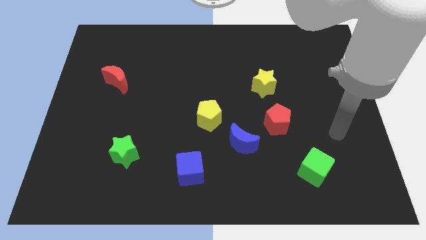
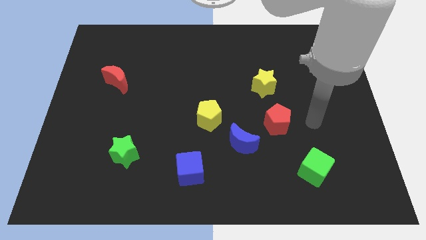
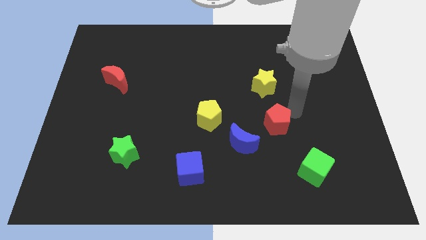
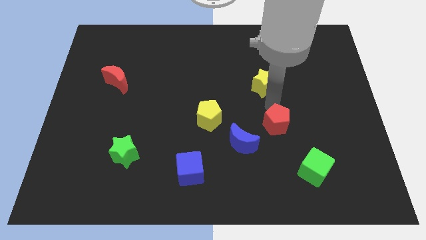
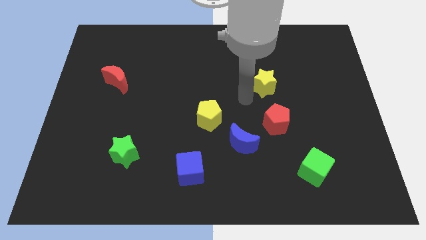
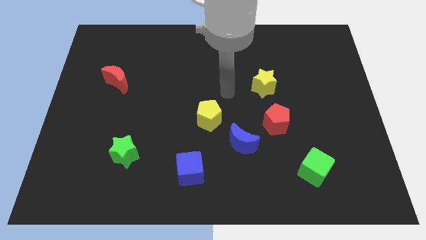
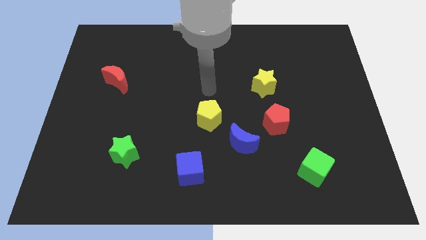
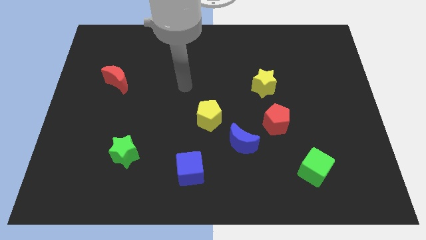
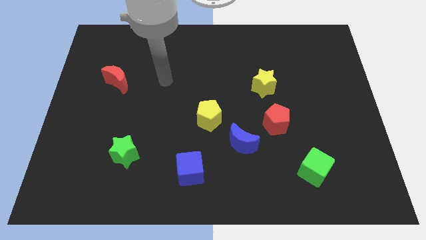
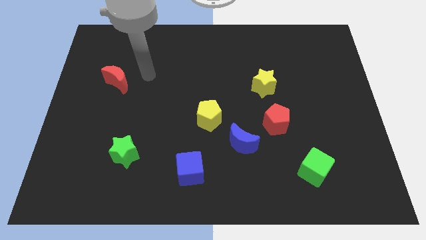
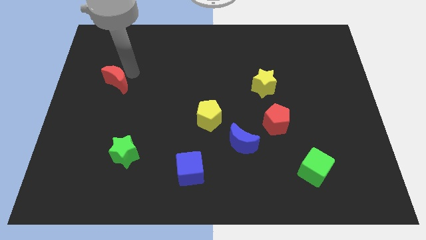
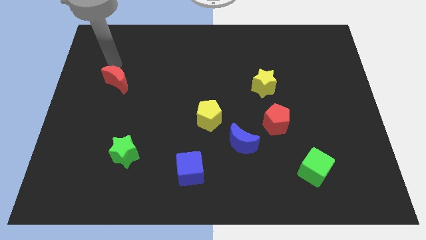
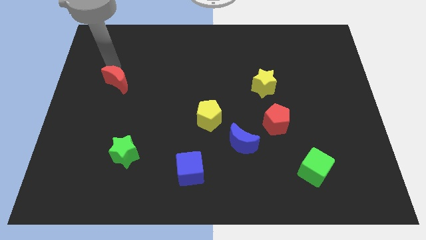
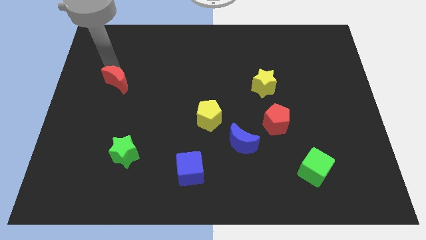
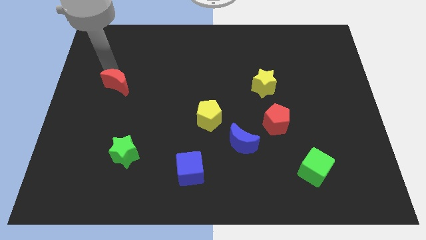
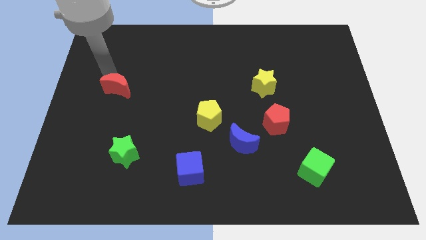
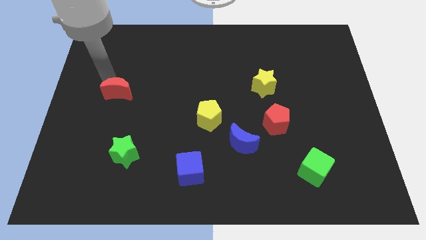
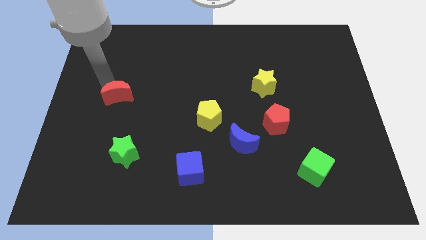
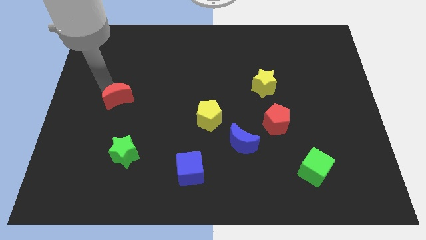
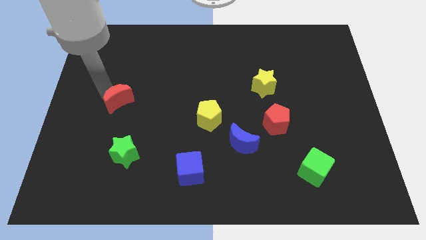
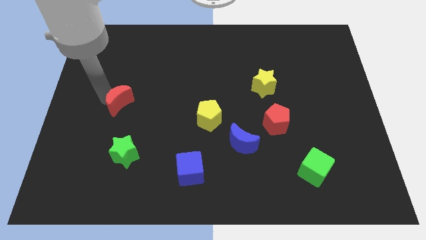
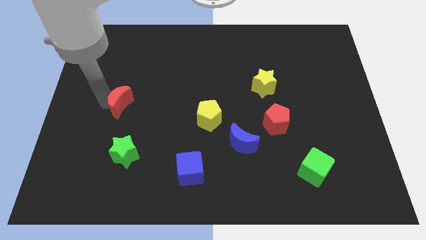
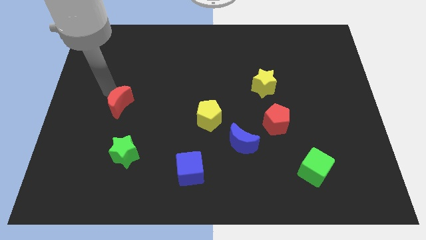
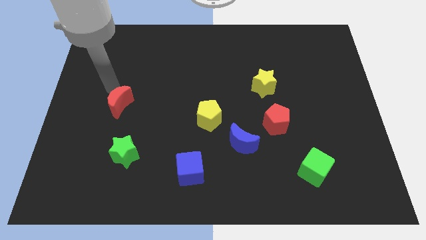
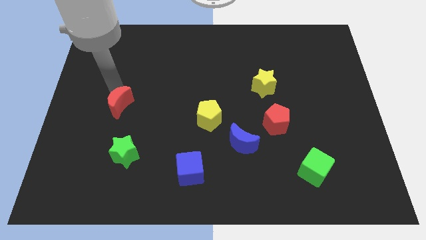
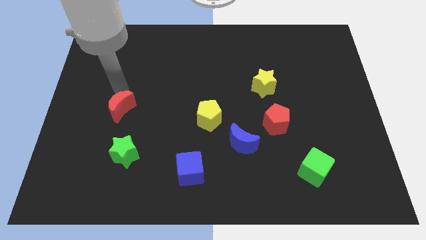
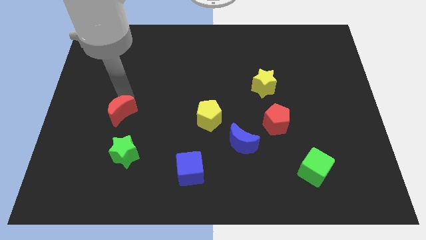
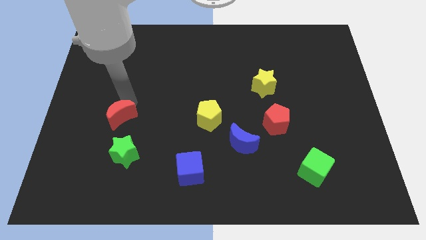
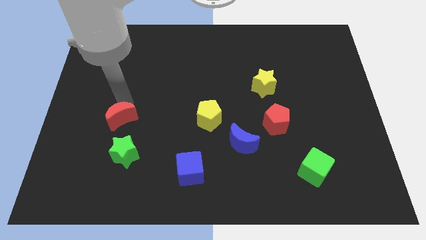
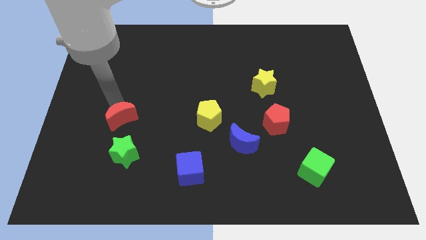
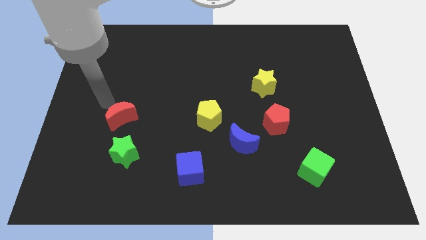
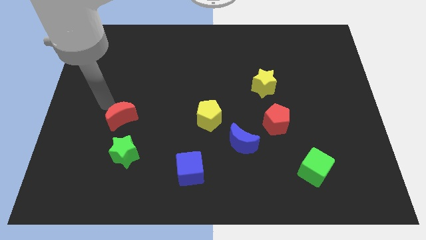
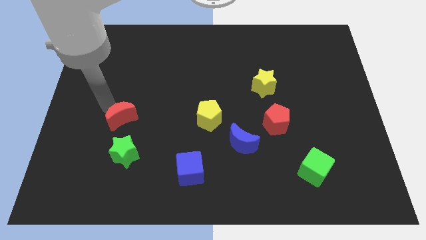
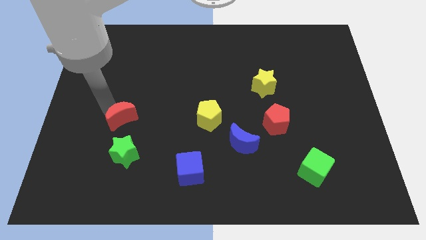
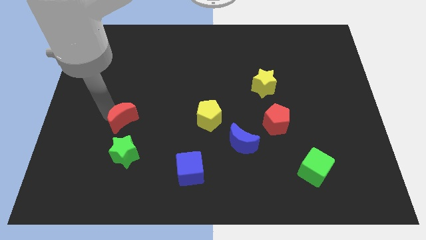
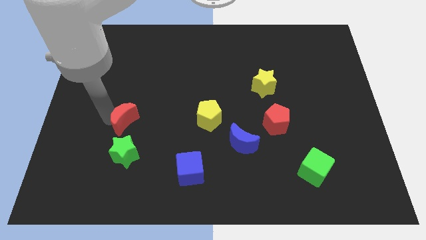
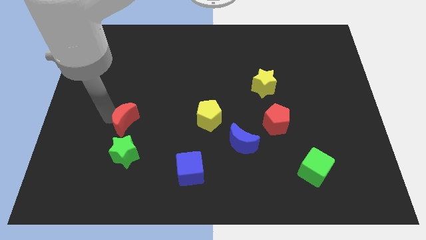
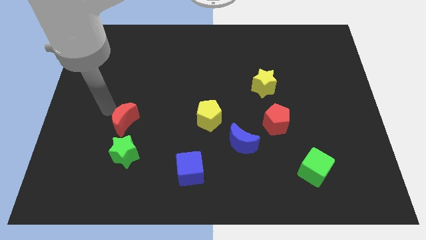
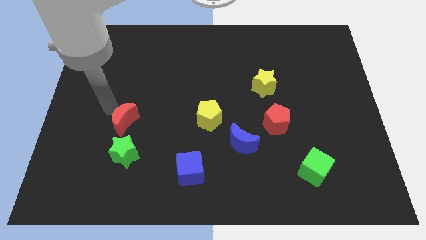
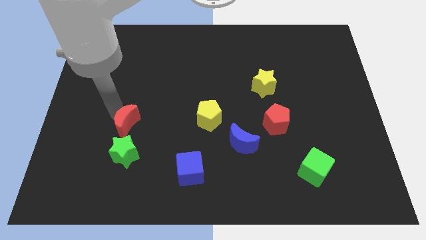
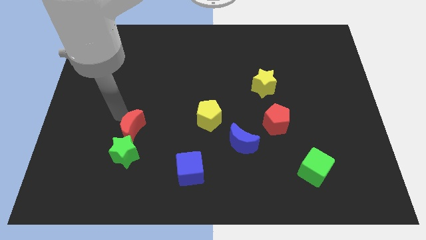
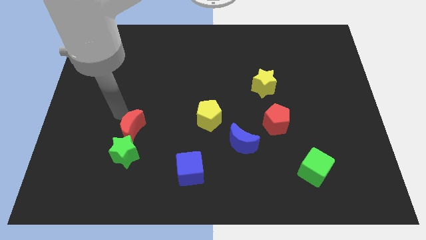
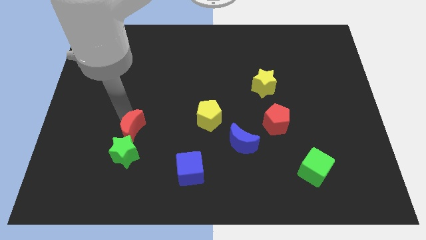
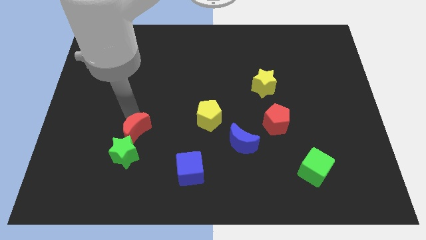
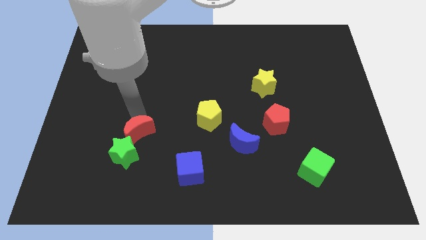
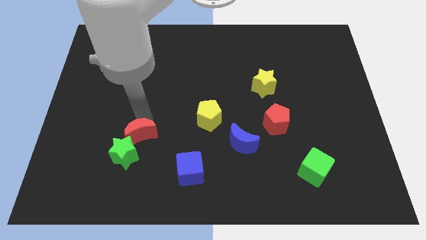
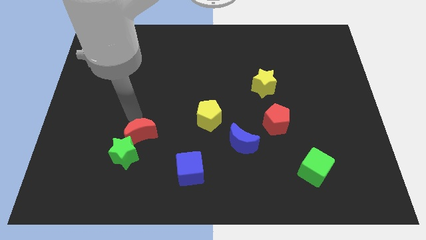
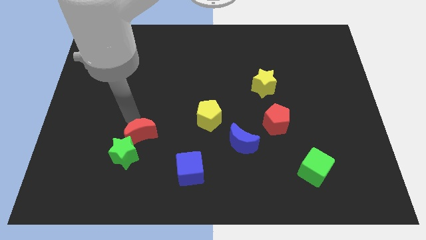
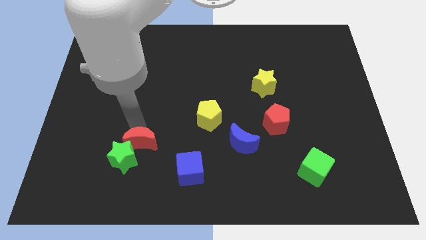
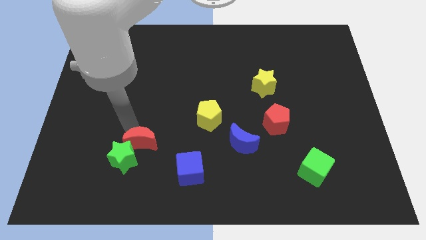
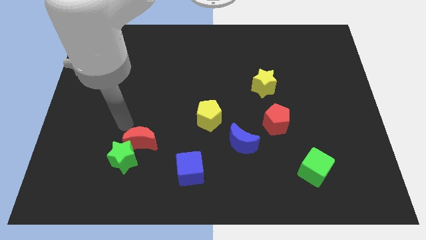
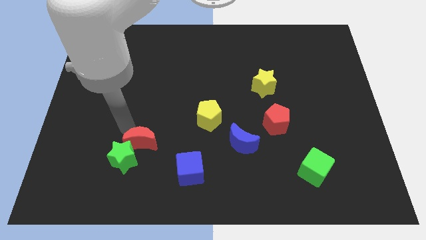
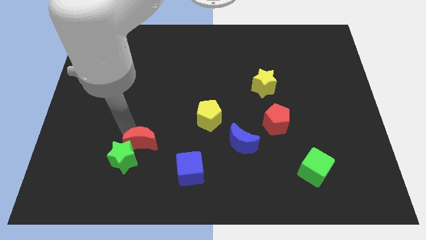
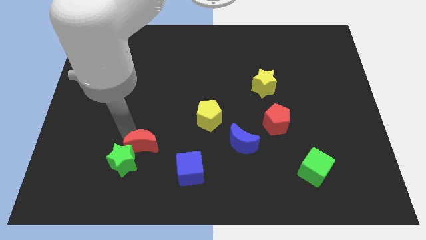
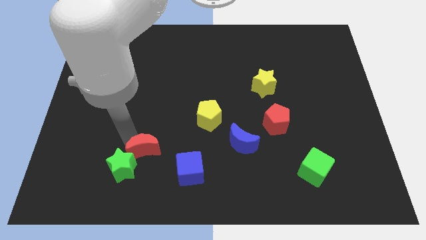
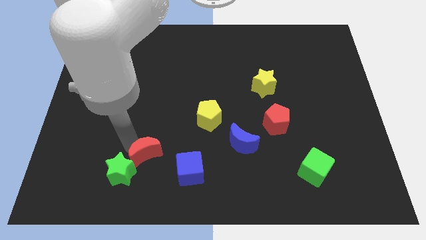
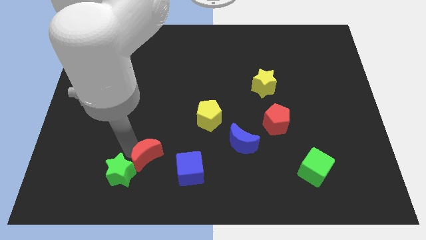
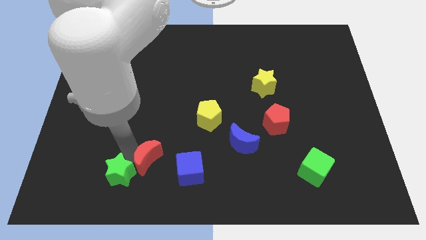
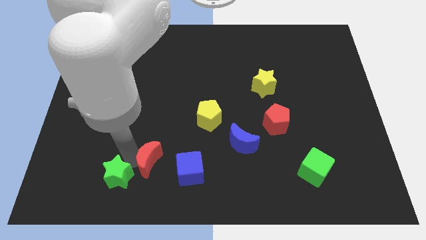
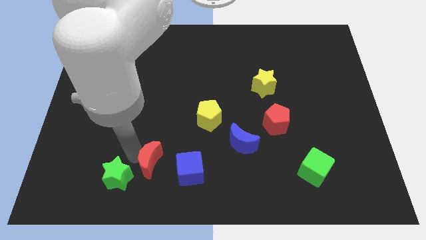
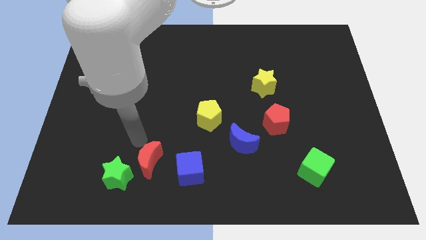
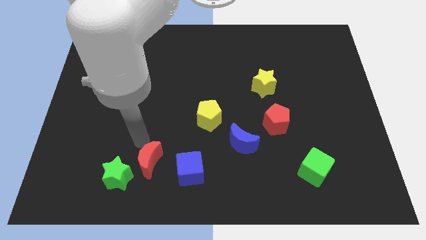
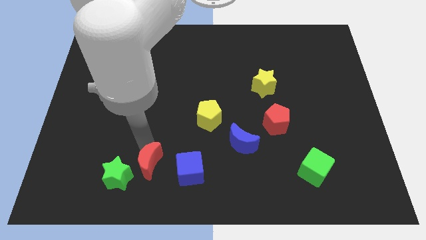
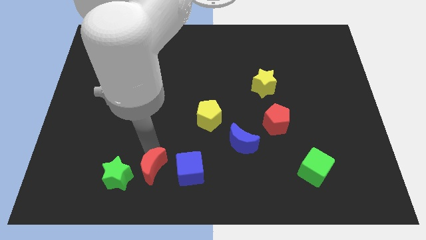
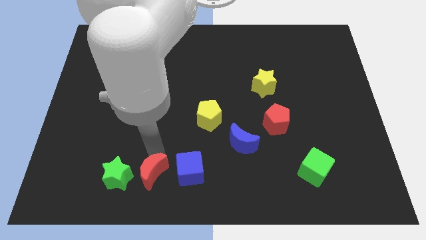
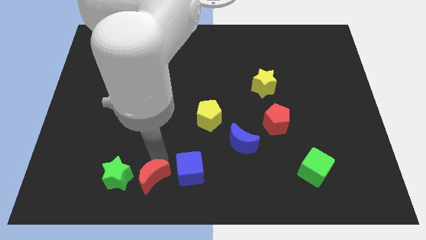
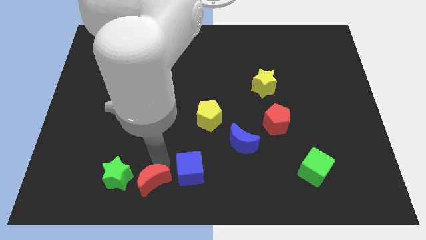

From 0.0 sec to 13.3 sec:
put the red moon to the bottom side

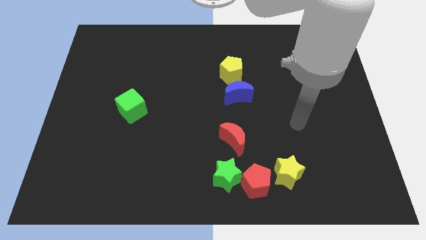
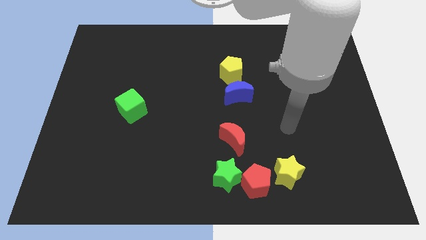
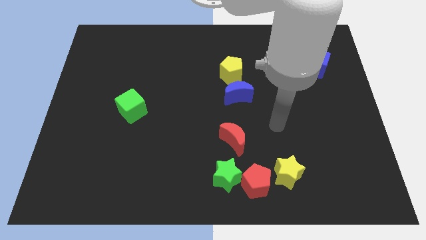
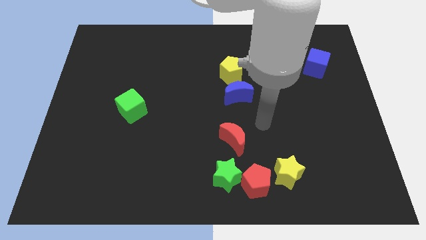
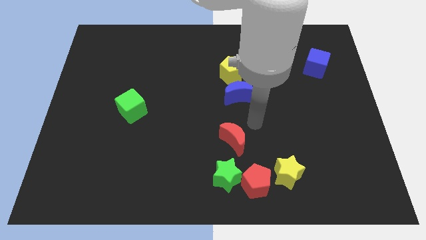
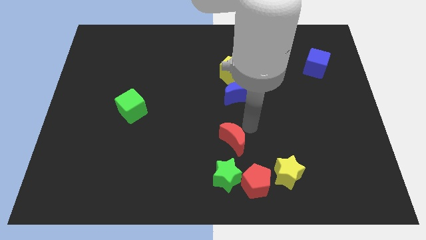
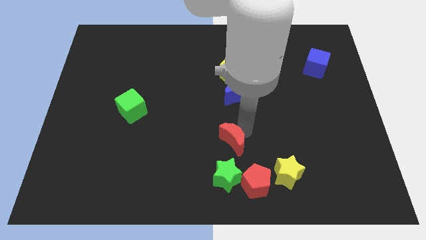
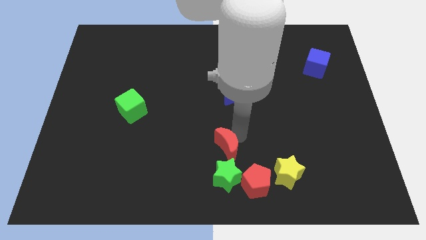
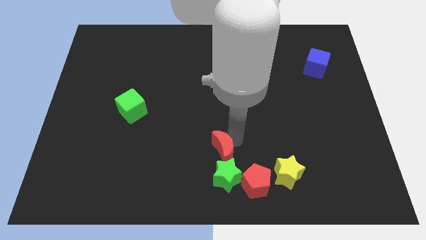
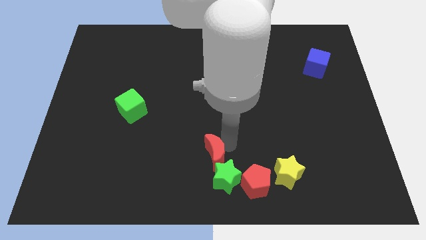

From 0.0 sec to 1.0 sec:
push the red moon to the bottom side

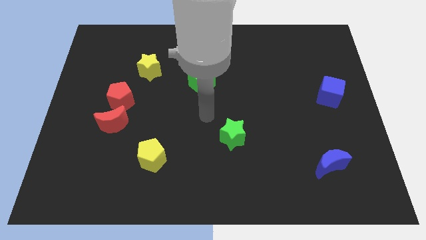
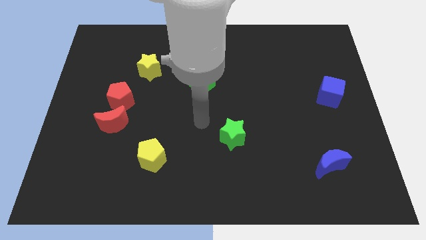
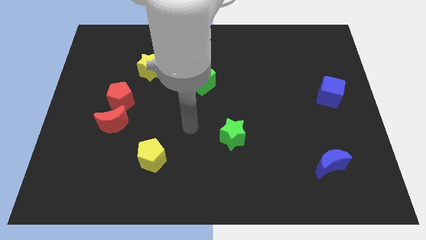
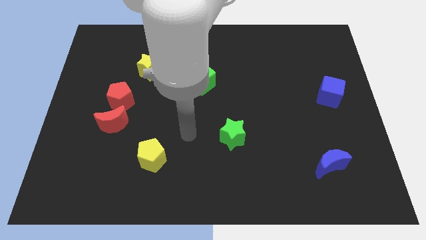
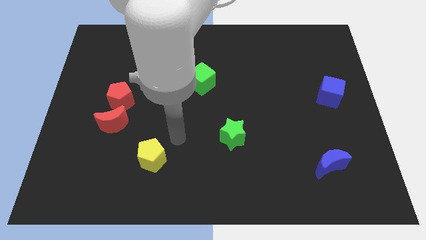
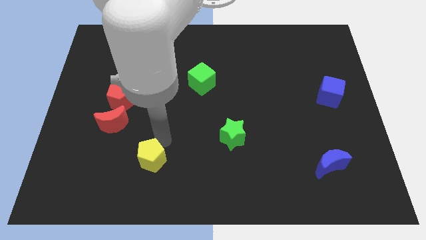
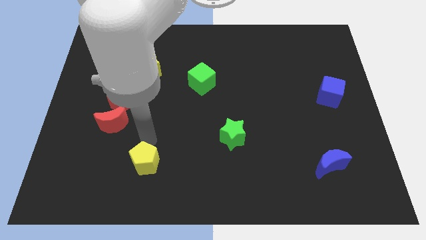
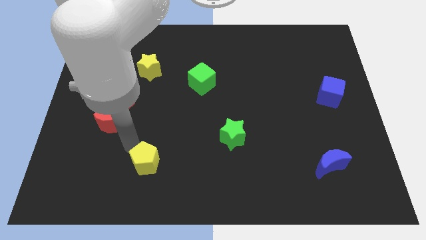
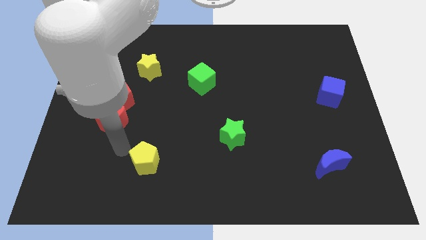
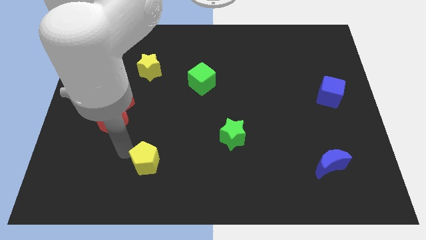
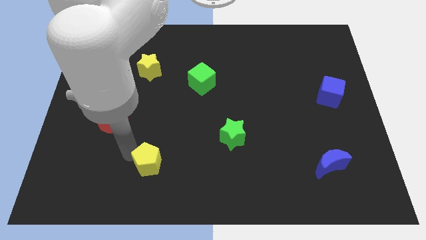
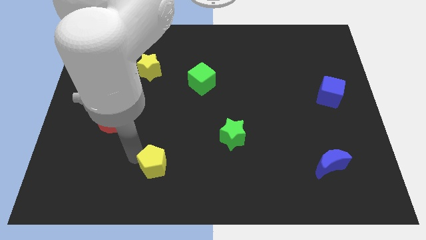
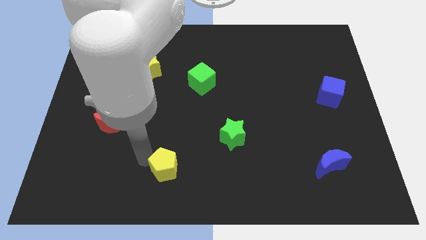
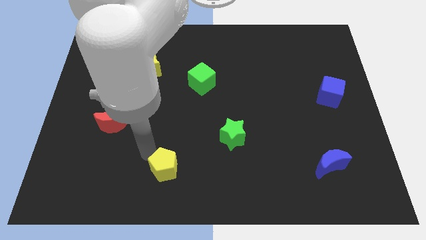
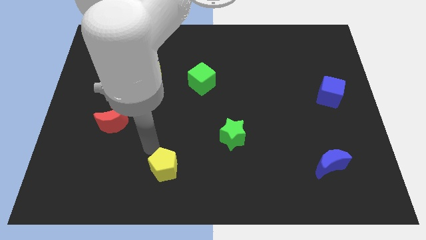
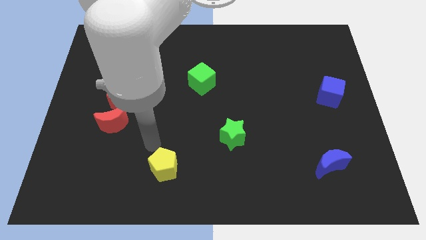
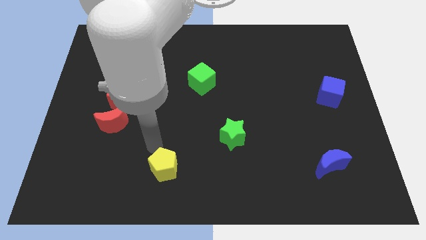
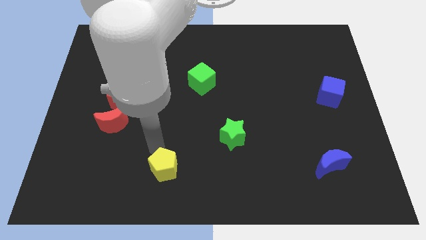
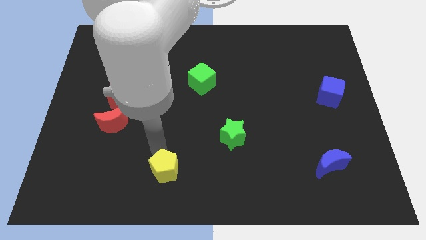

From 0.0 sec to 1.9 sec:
move the yellow pentagon to the bottom
